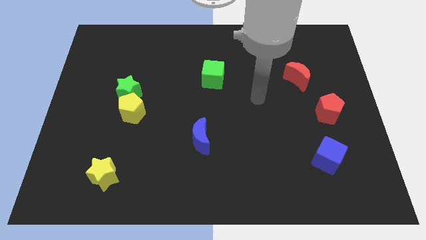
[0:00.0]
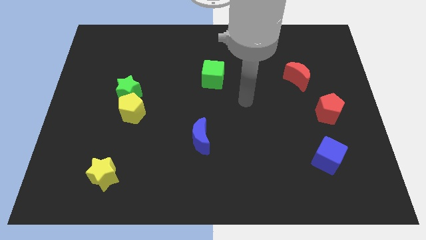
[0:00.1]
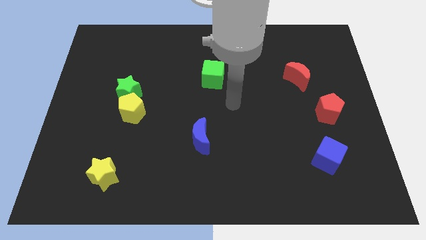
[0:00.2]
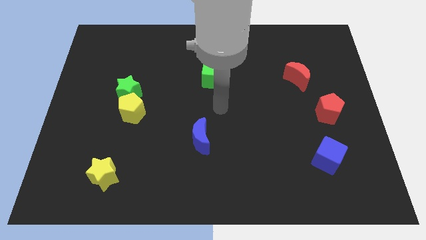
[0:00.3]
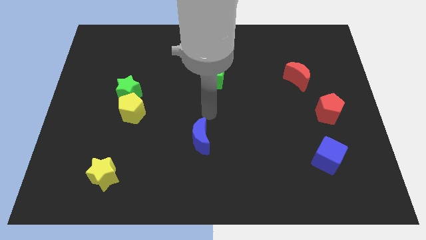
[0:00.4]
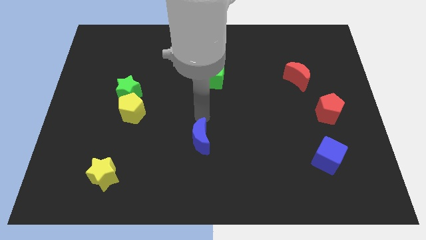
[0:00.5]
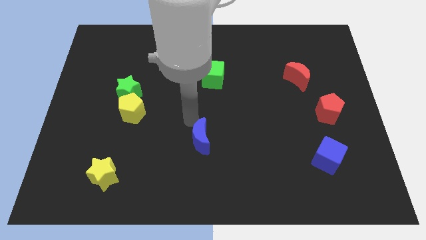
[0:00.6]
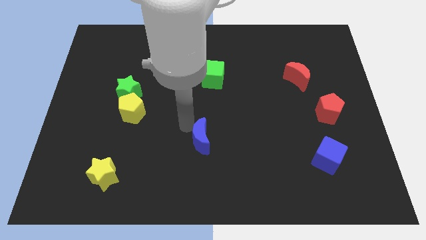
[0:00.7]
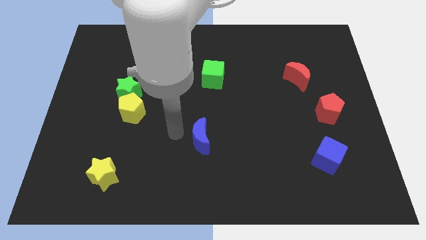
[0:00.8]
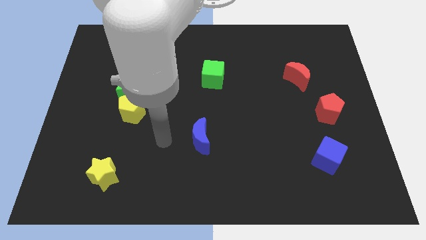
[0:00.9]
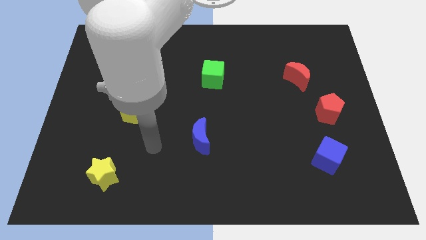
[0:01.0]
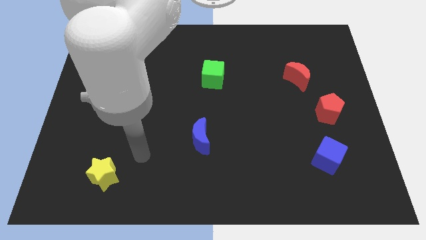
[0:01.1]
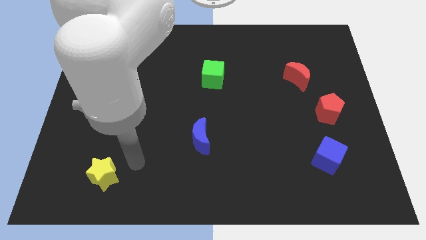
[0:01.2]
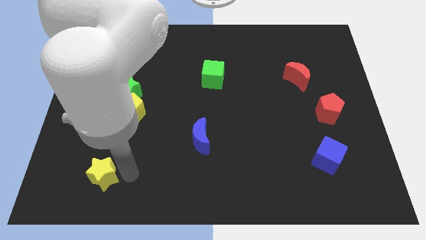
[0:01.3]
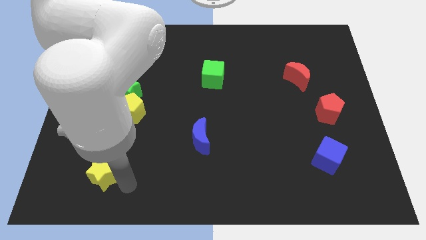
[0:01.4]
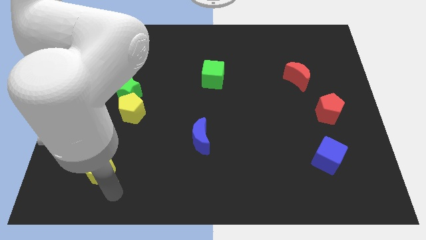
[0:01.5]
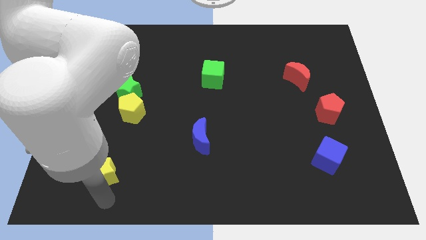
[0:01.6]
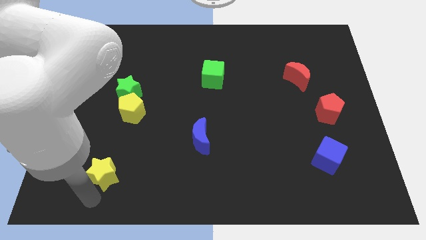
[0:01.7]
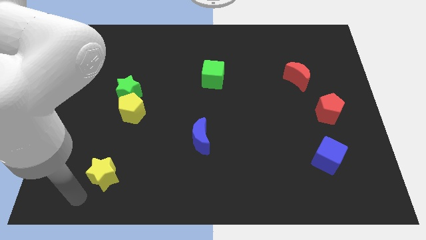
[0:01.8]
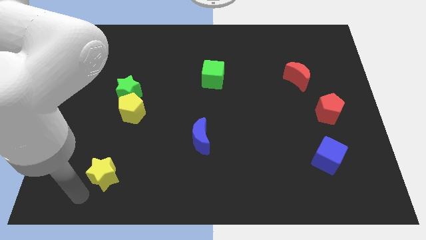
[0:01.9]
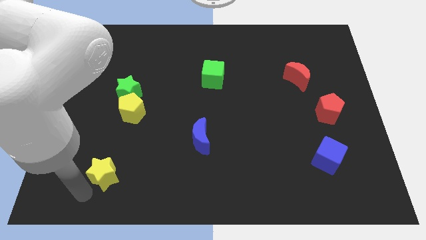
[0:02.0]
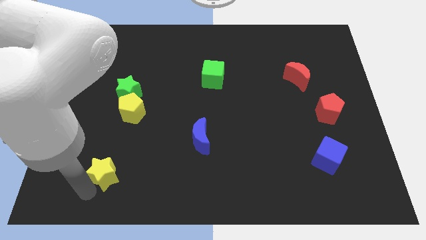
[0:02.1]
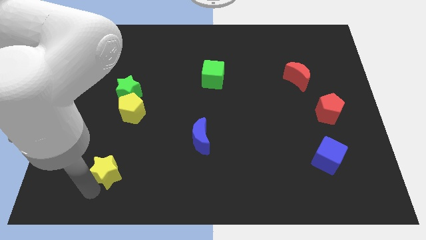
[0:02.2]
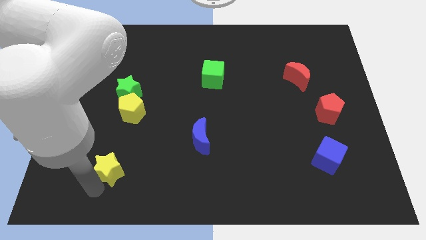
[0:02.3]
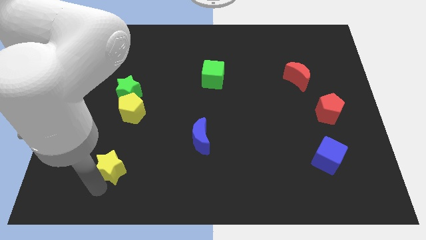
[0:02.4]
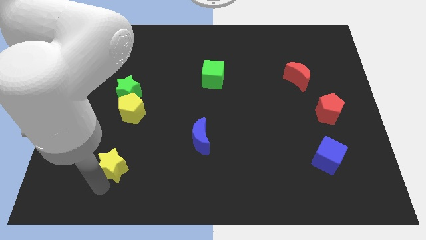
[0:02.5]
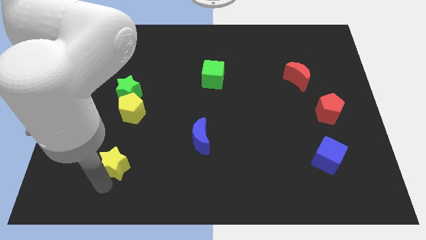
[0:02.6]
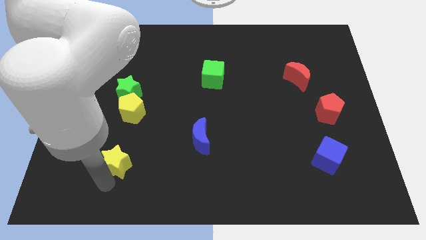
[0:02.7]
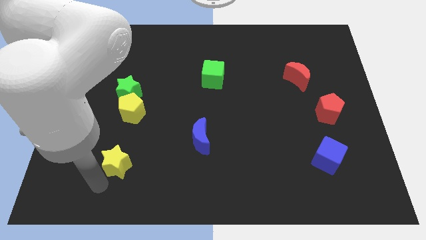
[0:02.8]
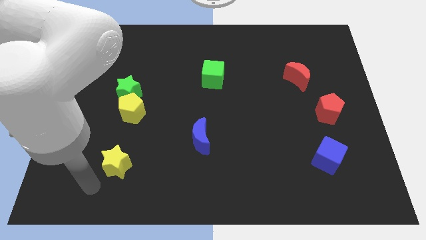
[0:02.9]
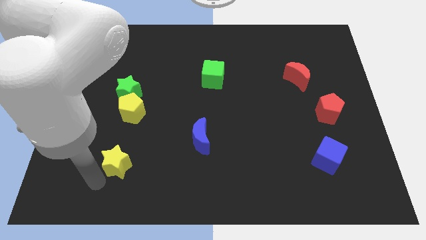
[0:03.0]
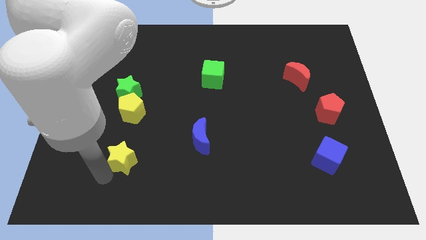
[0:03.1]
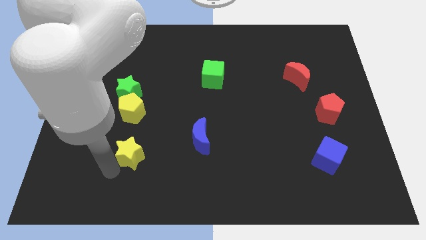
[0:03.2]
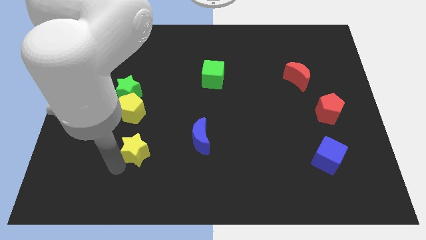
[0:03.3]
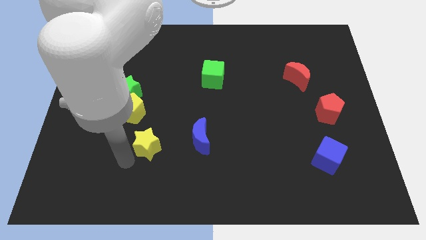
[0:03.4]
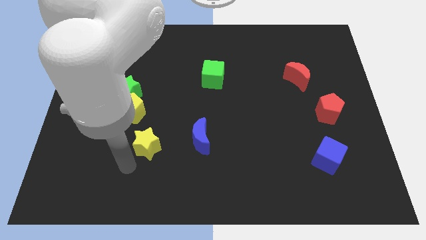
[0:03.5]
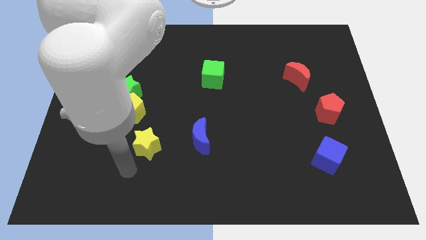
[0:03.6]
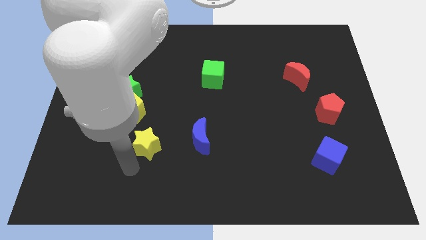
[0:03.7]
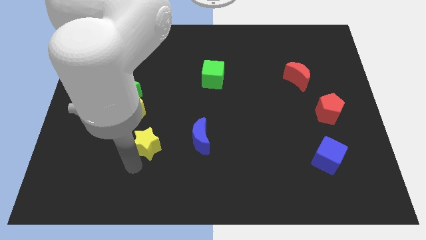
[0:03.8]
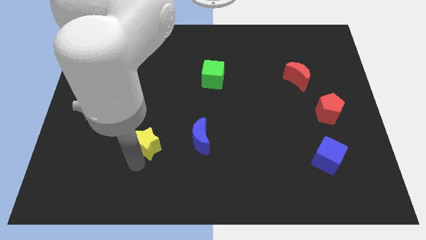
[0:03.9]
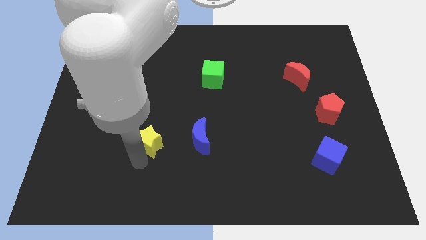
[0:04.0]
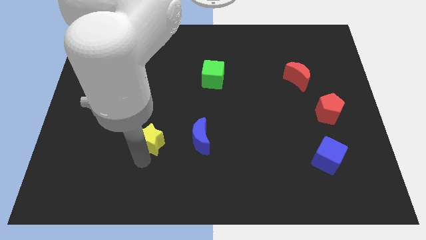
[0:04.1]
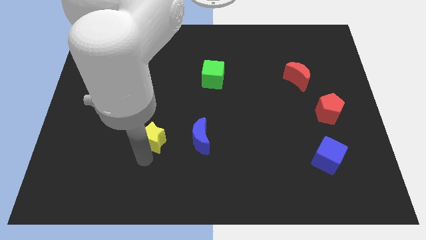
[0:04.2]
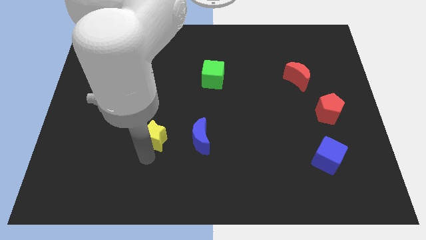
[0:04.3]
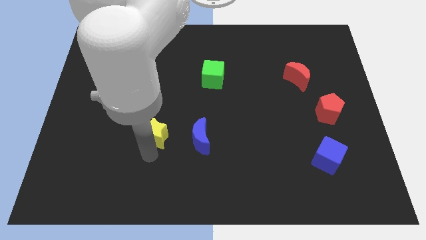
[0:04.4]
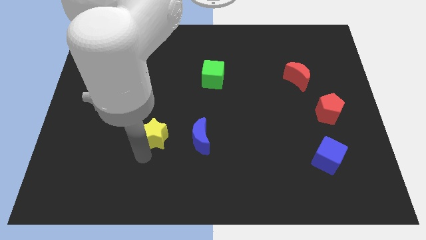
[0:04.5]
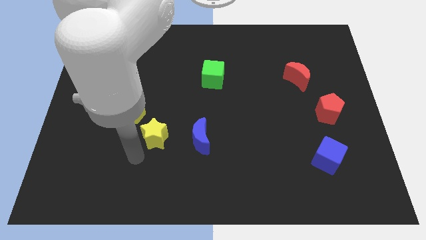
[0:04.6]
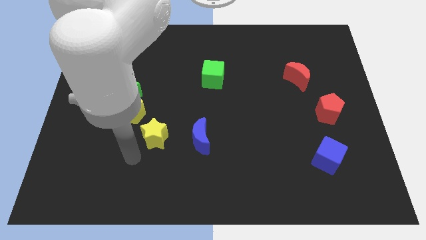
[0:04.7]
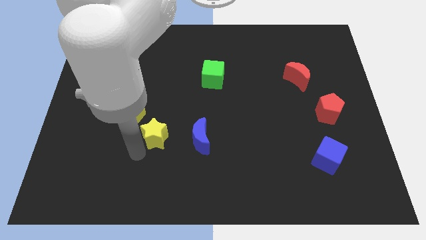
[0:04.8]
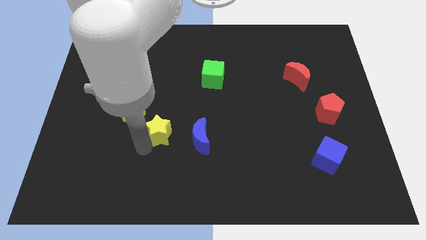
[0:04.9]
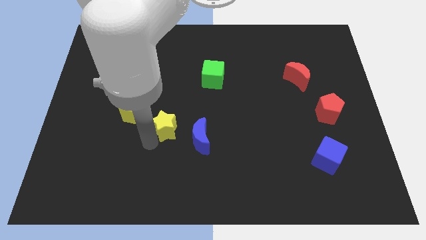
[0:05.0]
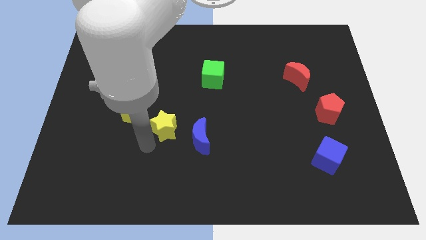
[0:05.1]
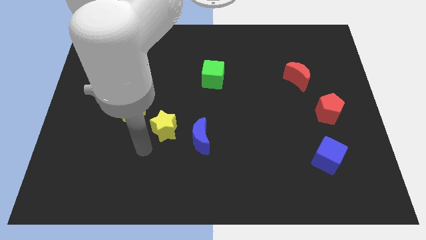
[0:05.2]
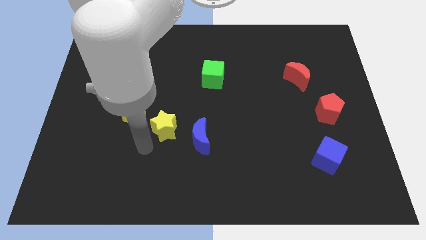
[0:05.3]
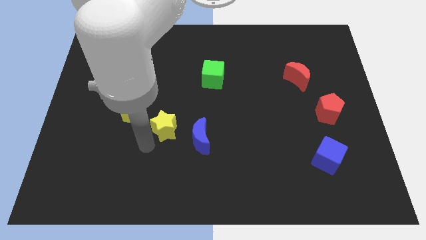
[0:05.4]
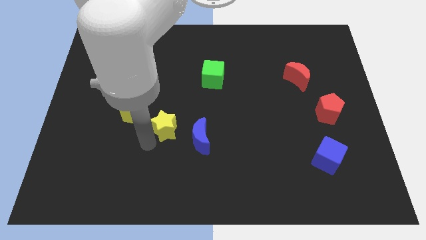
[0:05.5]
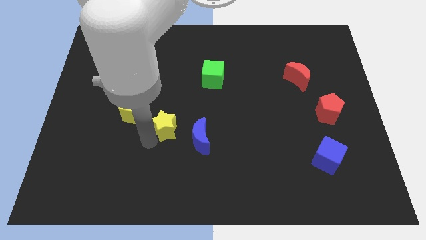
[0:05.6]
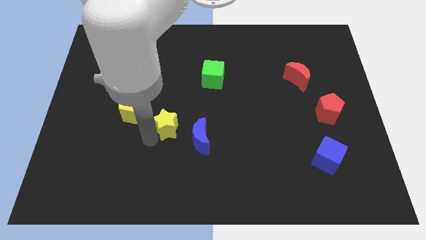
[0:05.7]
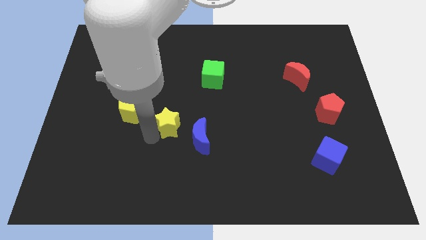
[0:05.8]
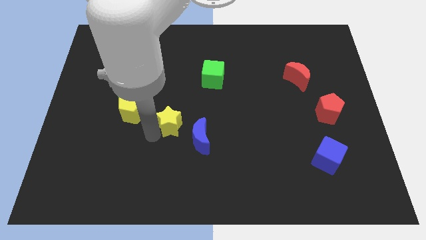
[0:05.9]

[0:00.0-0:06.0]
move the yellow star to the middle
